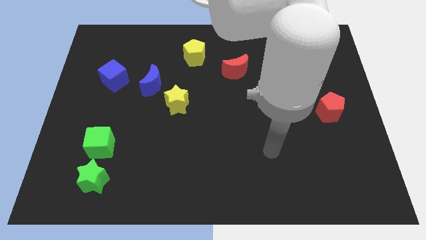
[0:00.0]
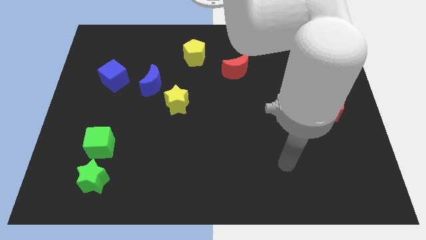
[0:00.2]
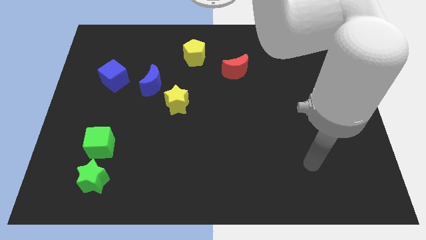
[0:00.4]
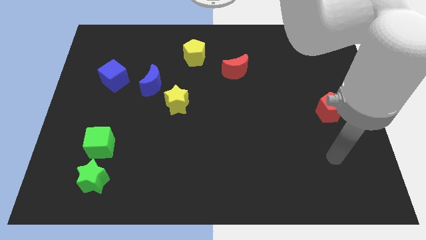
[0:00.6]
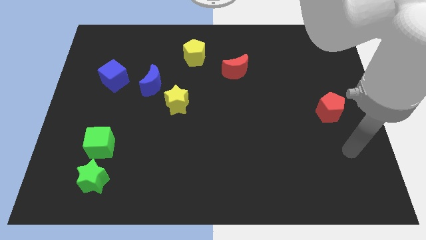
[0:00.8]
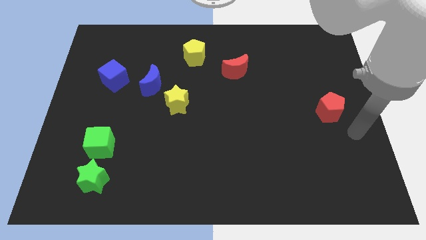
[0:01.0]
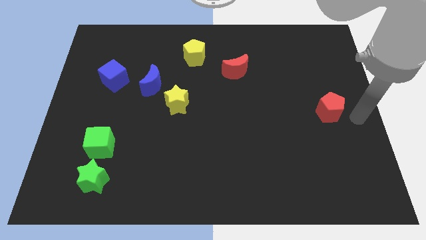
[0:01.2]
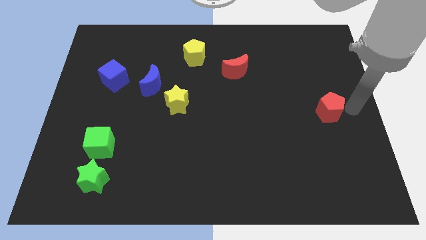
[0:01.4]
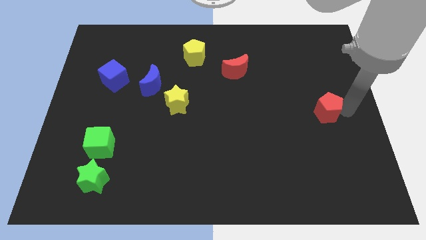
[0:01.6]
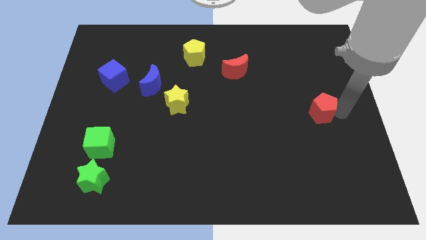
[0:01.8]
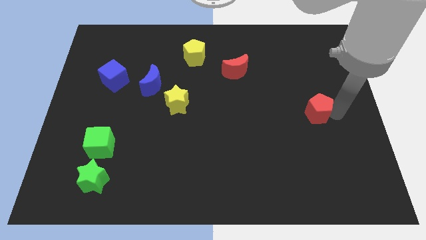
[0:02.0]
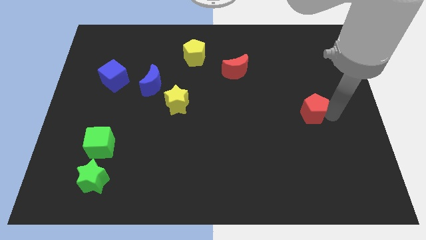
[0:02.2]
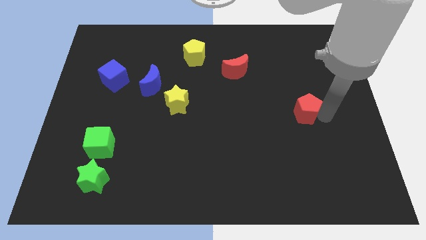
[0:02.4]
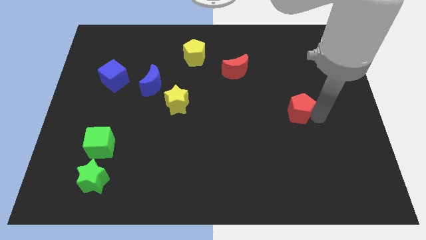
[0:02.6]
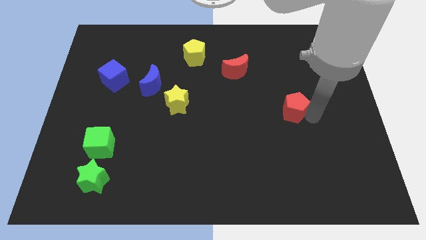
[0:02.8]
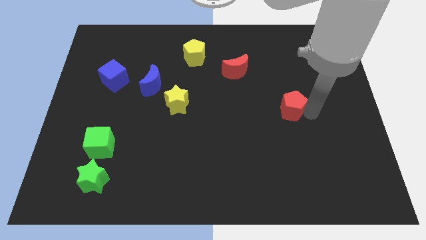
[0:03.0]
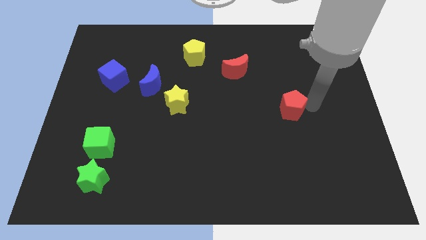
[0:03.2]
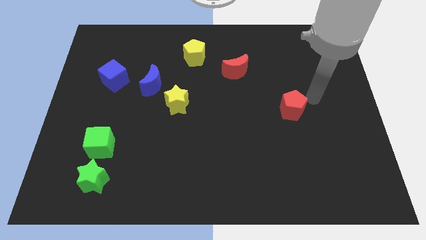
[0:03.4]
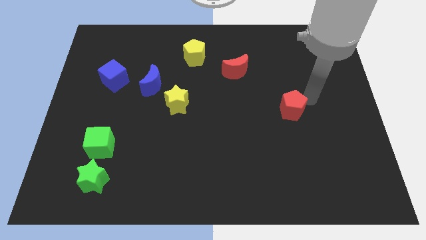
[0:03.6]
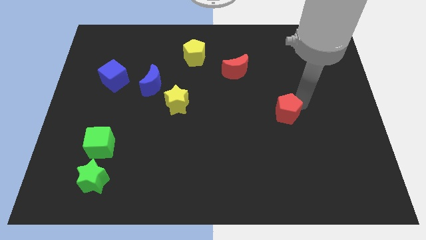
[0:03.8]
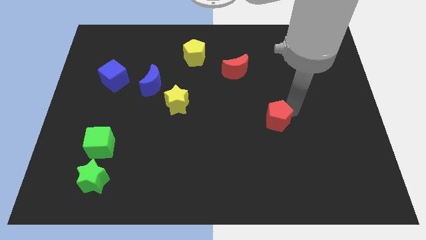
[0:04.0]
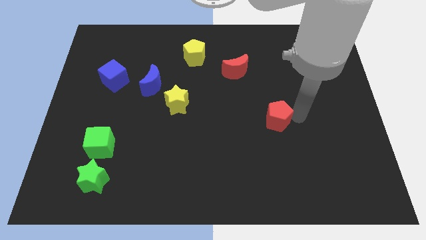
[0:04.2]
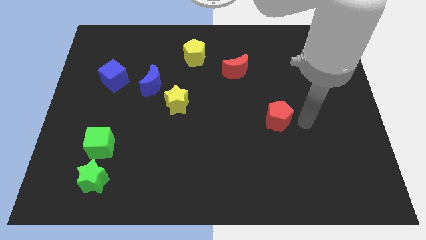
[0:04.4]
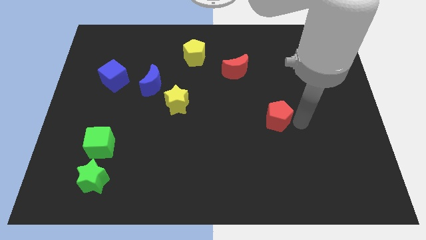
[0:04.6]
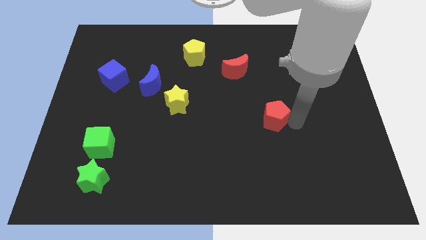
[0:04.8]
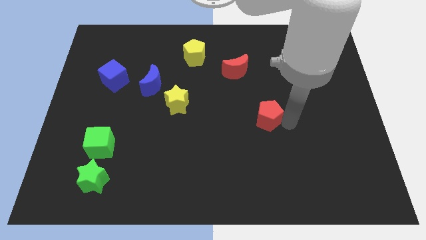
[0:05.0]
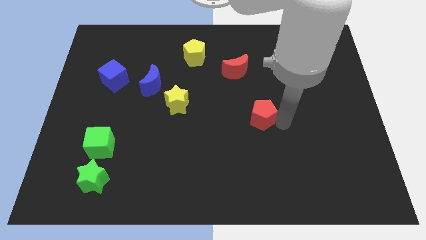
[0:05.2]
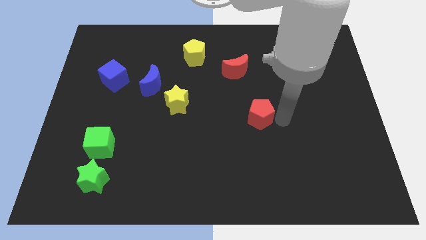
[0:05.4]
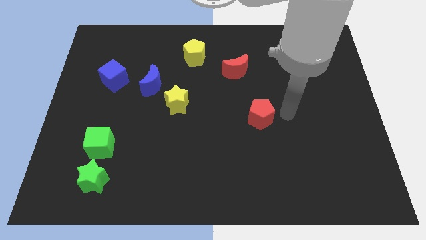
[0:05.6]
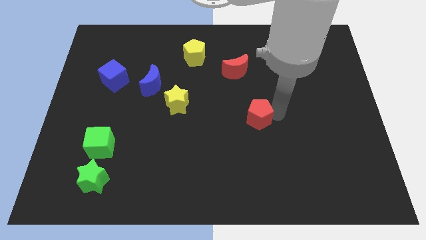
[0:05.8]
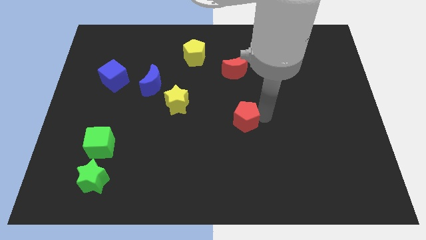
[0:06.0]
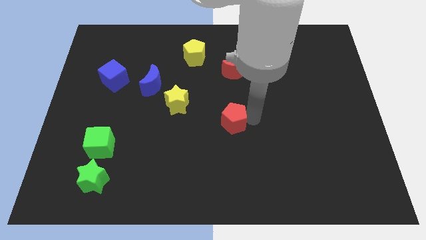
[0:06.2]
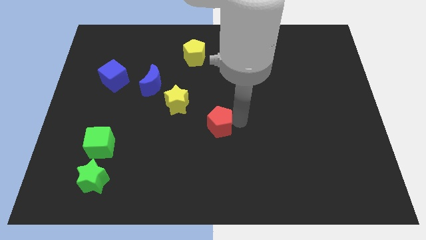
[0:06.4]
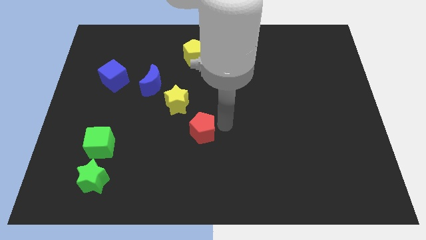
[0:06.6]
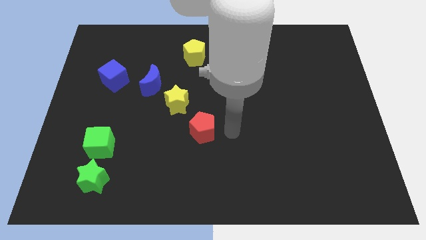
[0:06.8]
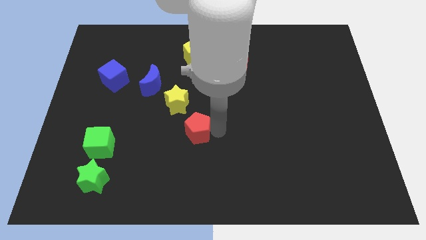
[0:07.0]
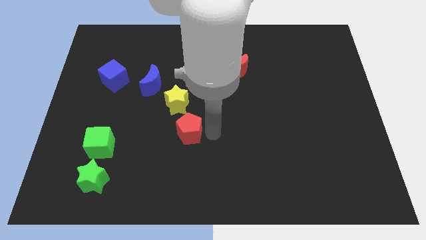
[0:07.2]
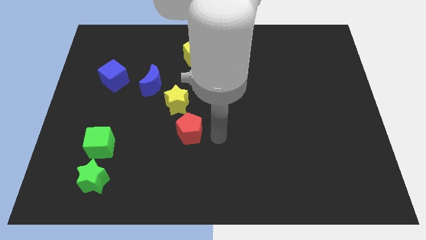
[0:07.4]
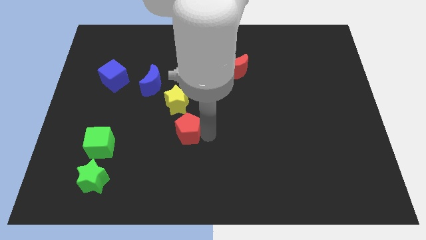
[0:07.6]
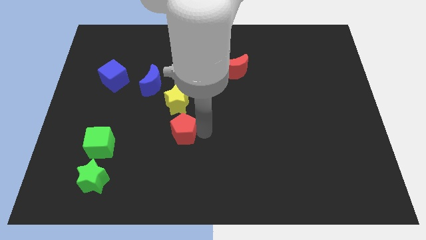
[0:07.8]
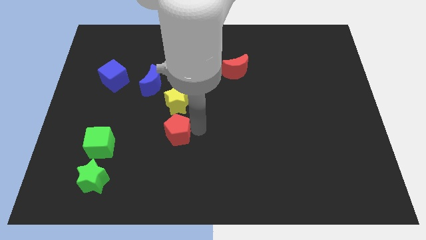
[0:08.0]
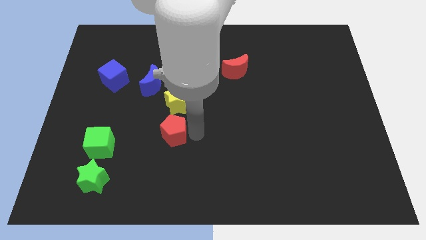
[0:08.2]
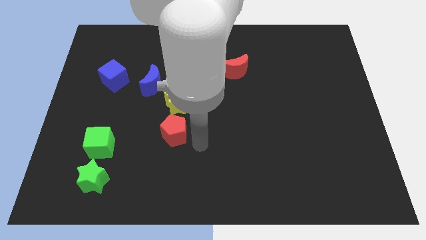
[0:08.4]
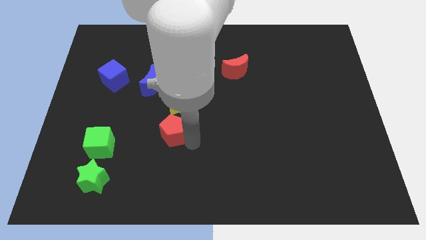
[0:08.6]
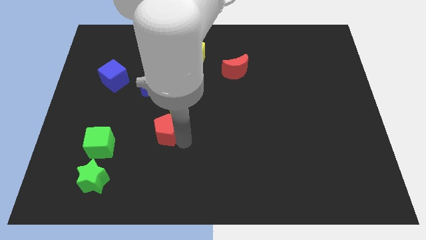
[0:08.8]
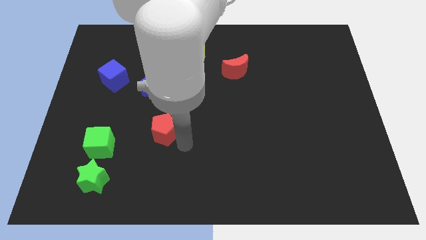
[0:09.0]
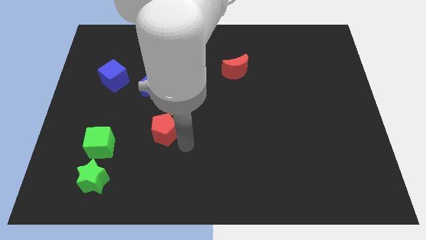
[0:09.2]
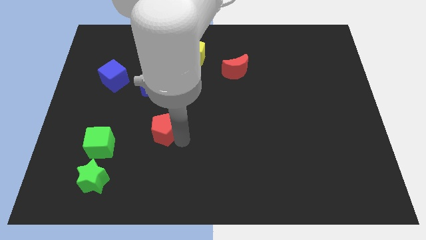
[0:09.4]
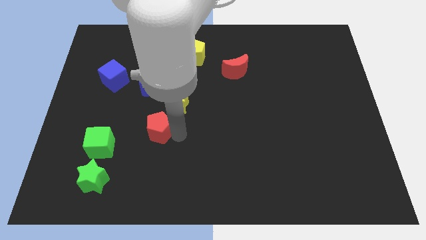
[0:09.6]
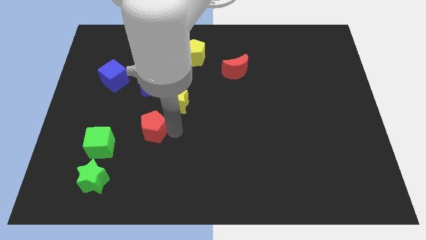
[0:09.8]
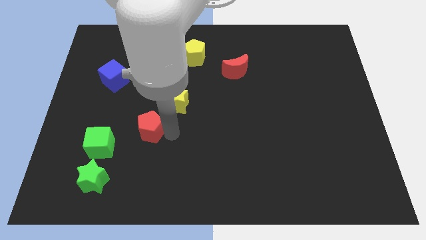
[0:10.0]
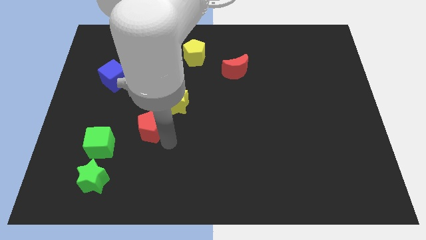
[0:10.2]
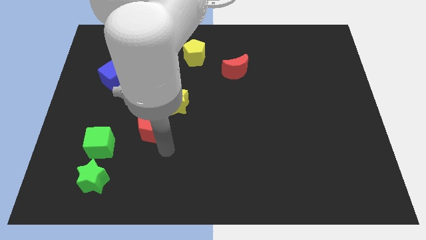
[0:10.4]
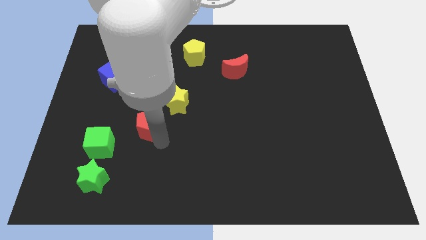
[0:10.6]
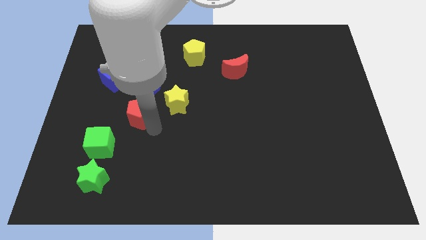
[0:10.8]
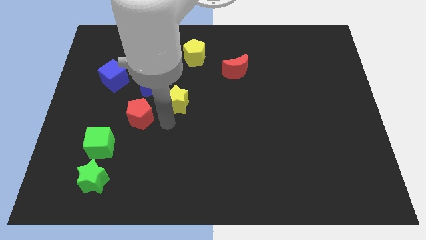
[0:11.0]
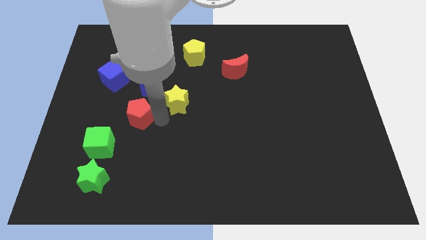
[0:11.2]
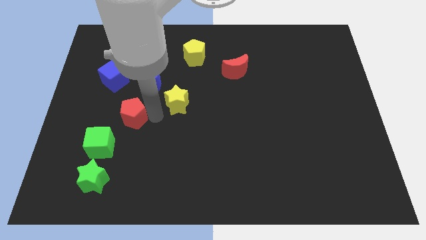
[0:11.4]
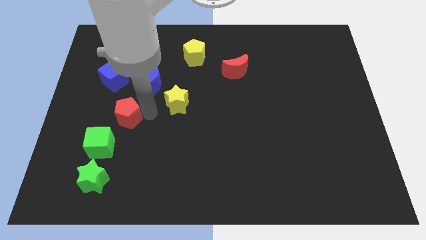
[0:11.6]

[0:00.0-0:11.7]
put the red pentagon to the top of the green cube

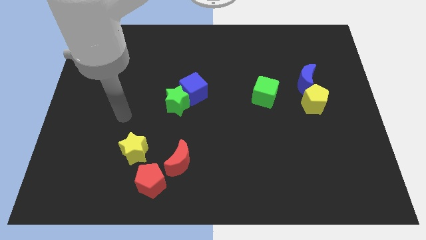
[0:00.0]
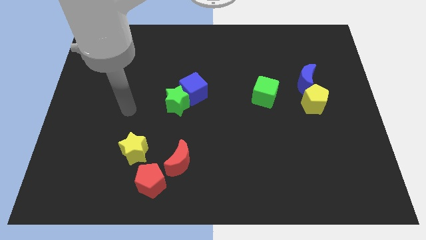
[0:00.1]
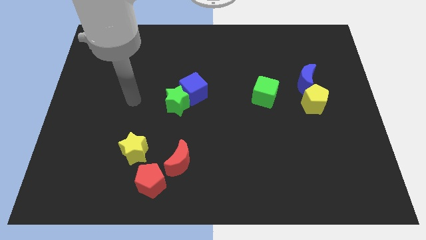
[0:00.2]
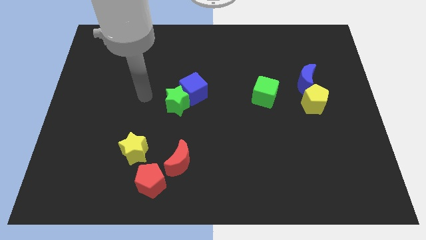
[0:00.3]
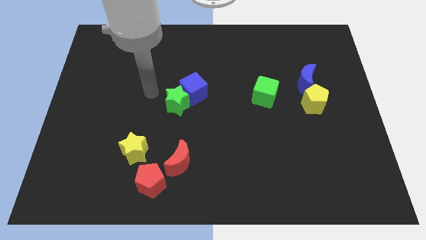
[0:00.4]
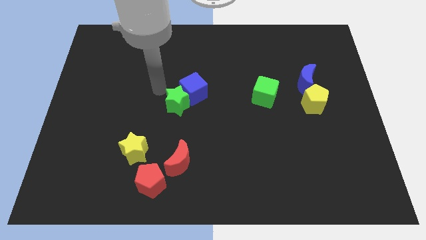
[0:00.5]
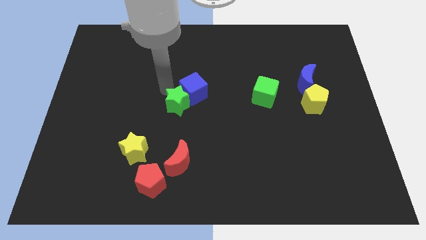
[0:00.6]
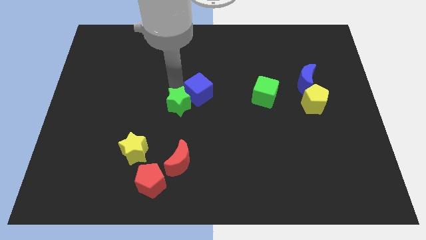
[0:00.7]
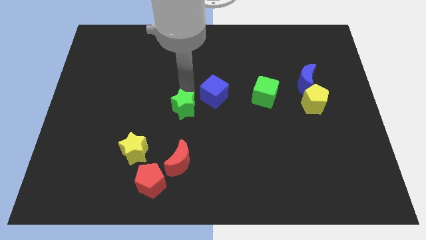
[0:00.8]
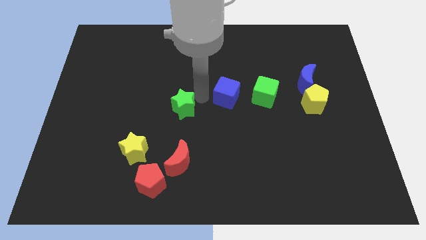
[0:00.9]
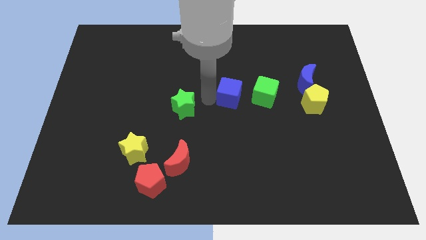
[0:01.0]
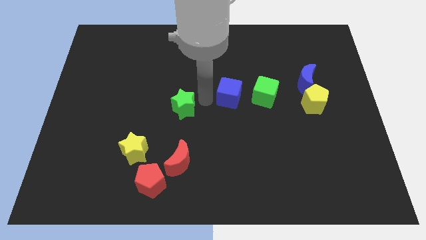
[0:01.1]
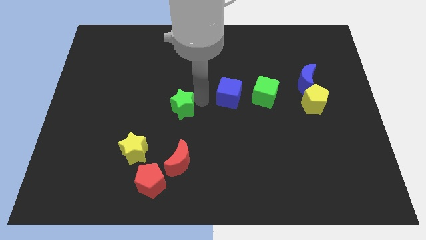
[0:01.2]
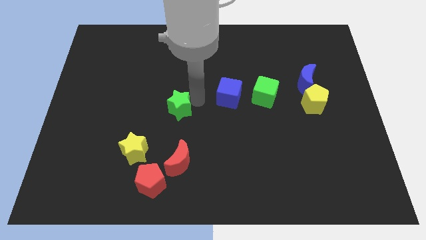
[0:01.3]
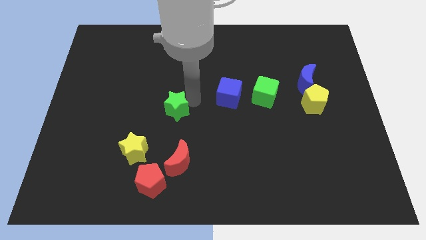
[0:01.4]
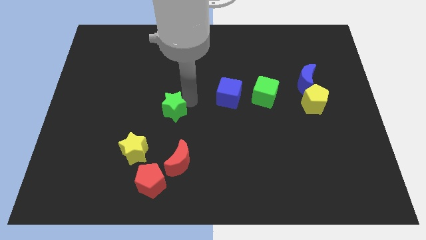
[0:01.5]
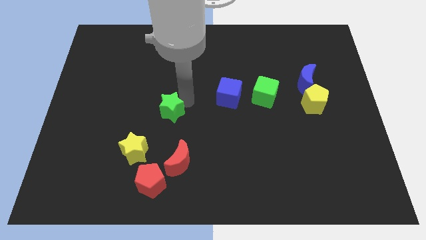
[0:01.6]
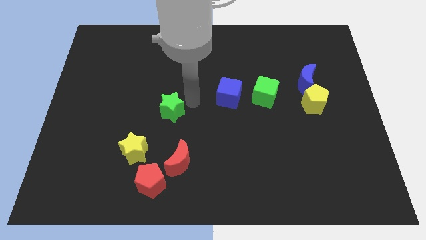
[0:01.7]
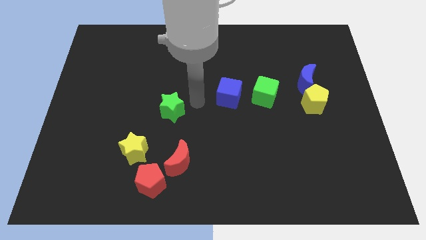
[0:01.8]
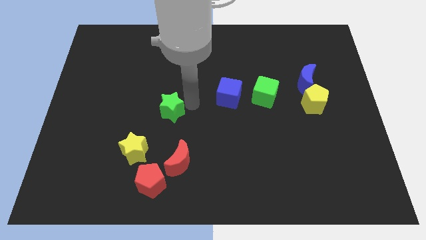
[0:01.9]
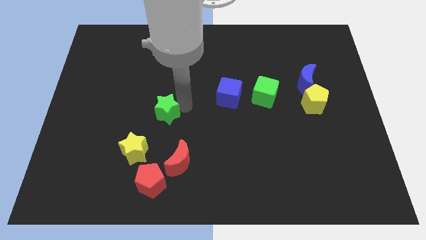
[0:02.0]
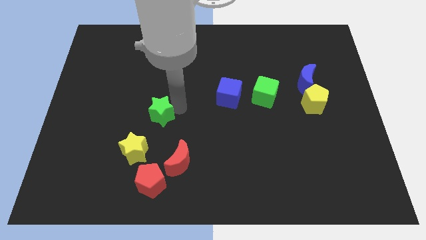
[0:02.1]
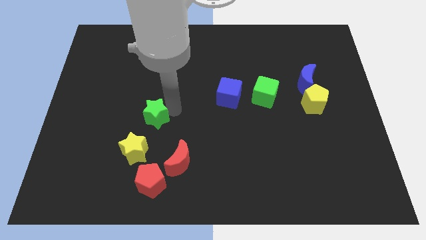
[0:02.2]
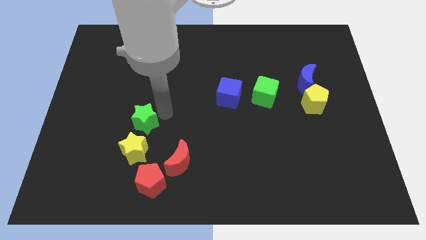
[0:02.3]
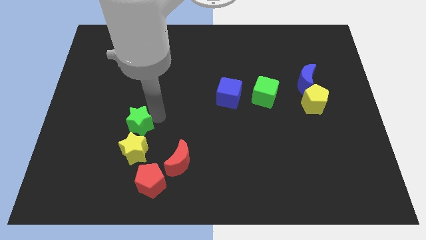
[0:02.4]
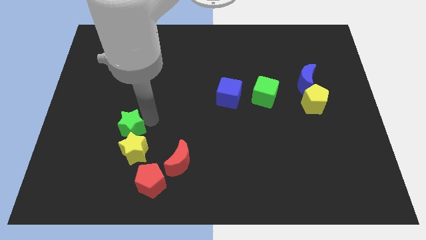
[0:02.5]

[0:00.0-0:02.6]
slide the green star to the top left of the yellow star
